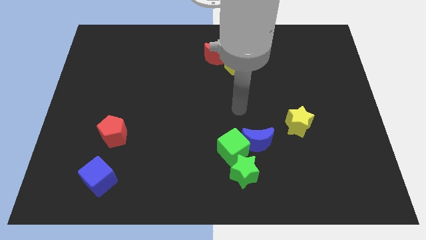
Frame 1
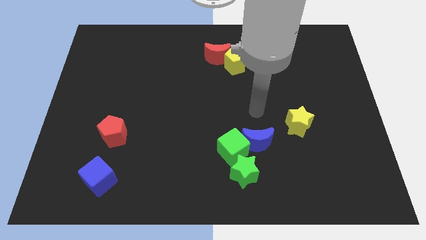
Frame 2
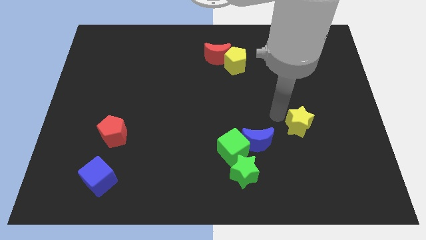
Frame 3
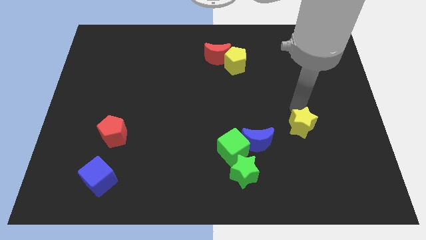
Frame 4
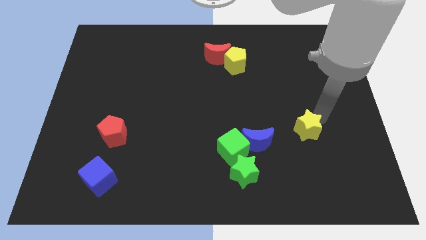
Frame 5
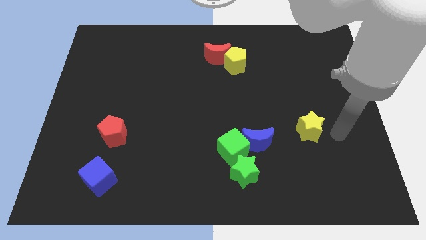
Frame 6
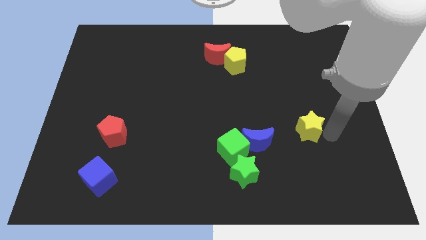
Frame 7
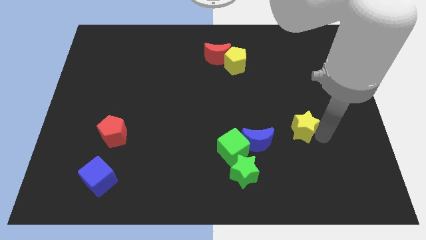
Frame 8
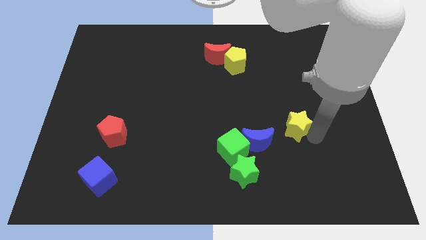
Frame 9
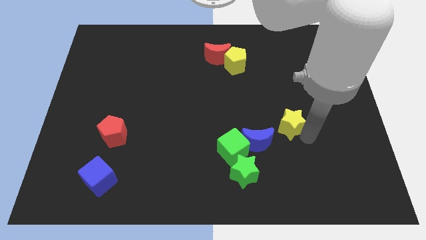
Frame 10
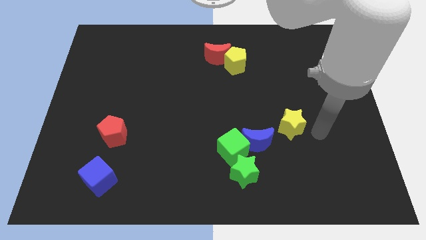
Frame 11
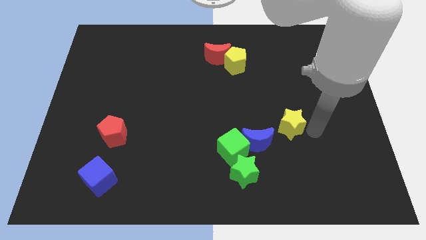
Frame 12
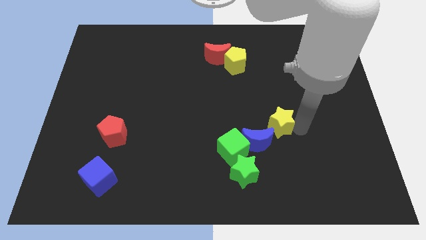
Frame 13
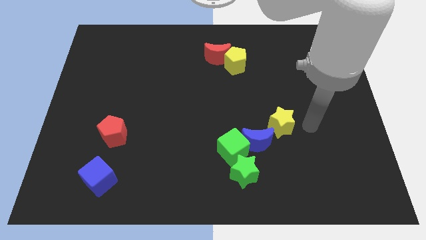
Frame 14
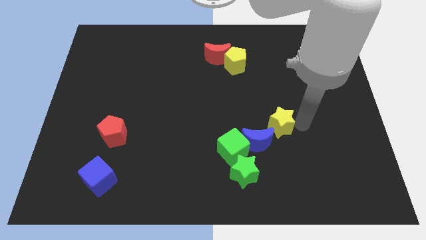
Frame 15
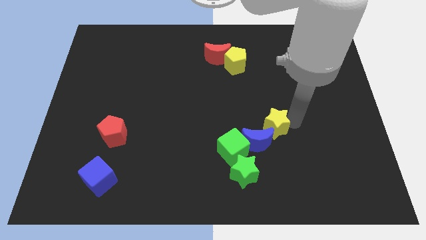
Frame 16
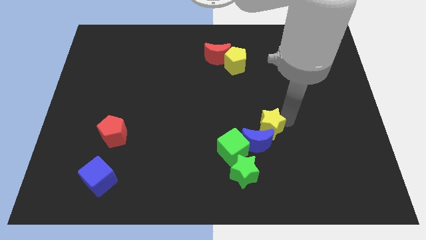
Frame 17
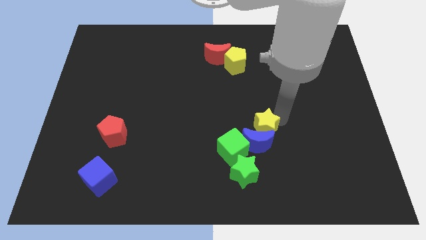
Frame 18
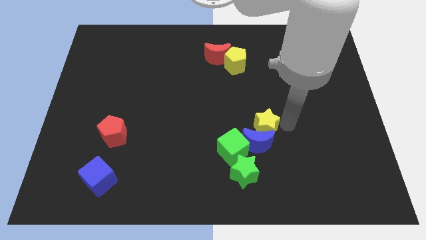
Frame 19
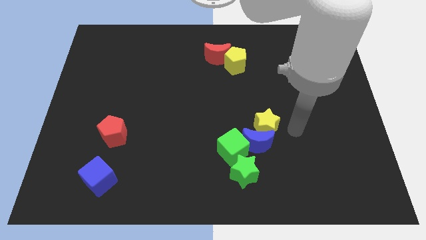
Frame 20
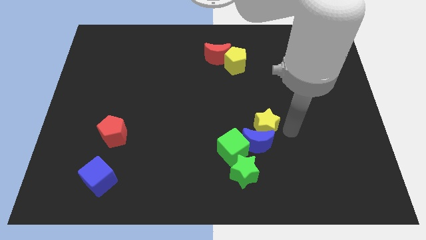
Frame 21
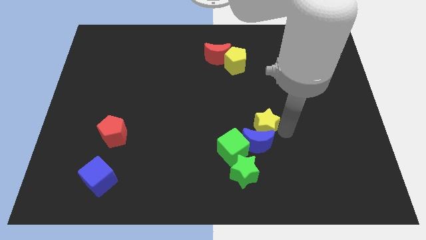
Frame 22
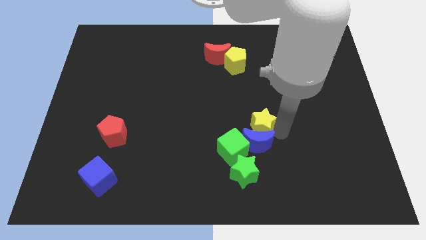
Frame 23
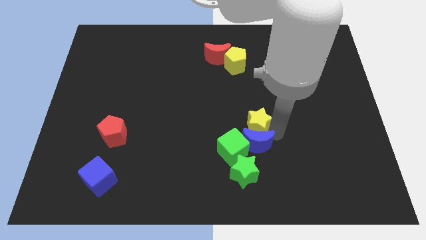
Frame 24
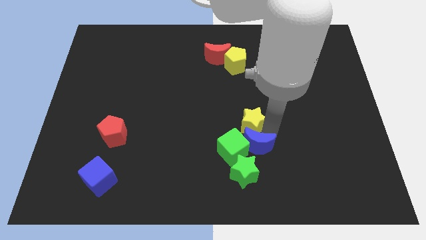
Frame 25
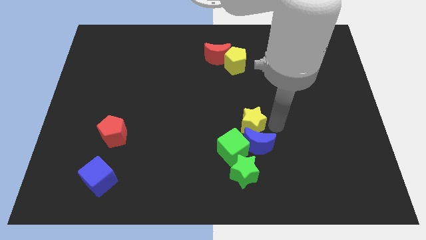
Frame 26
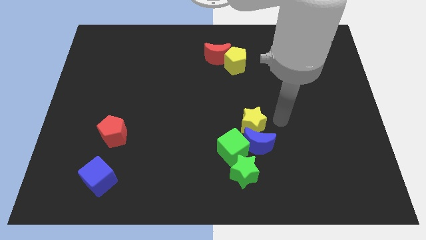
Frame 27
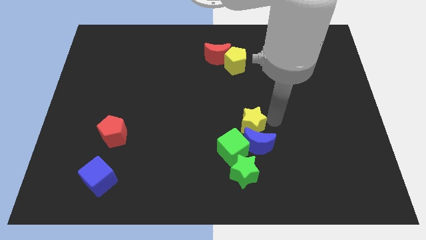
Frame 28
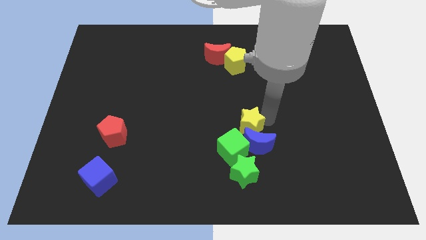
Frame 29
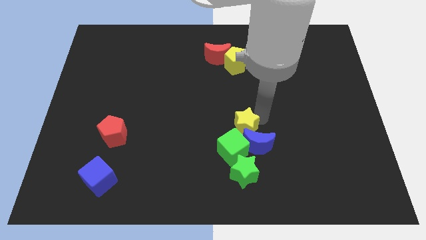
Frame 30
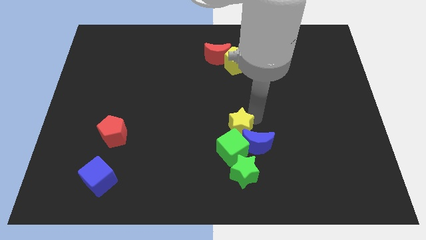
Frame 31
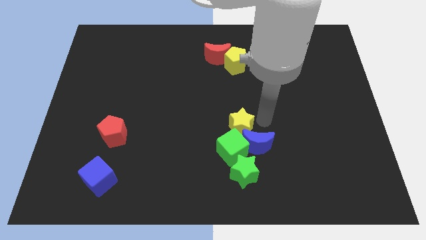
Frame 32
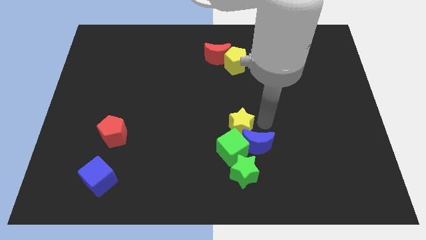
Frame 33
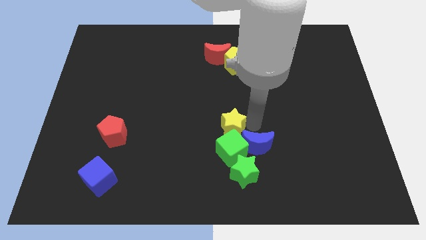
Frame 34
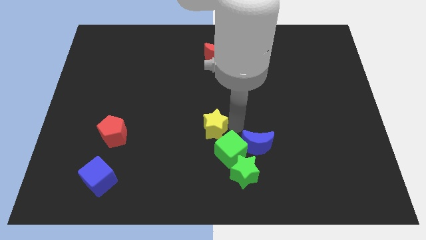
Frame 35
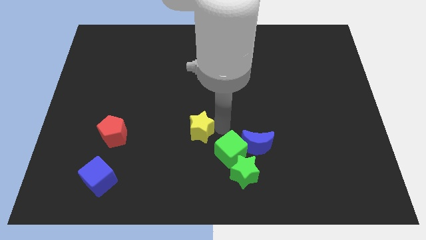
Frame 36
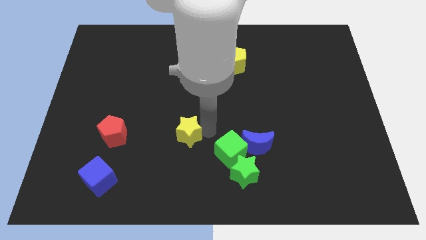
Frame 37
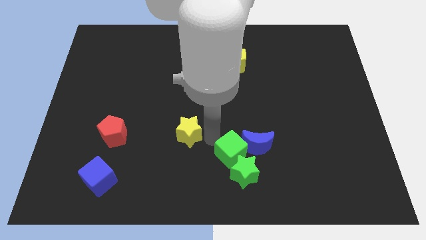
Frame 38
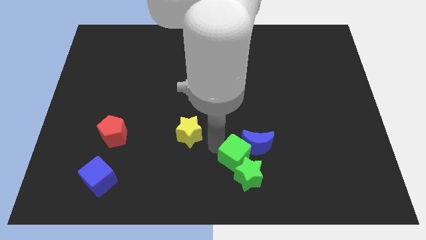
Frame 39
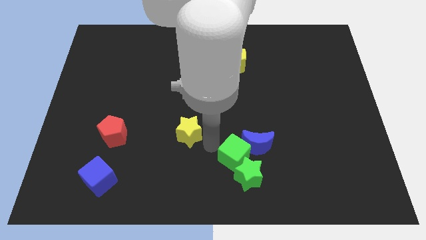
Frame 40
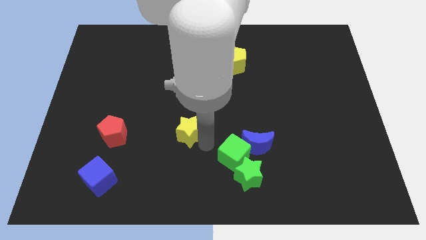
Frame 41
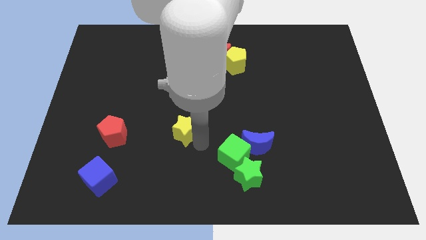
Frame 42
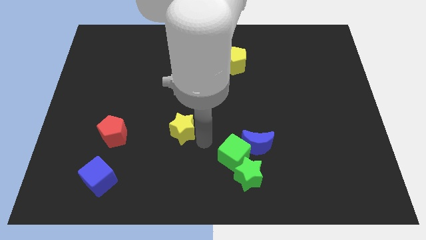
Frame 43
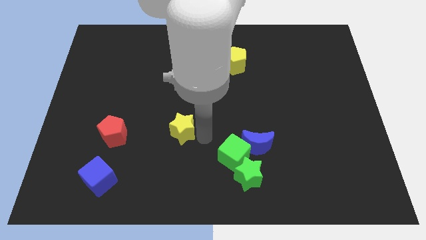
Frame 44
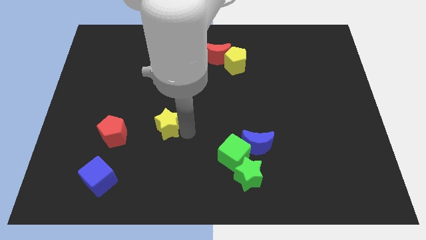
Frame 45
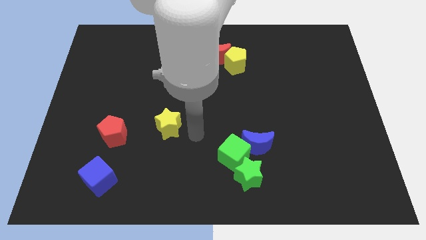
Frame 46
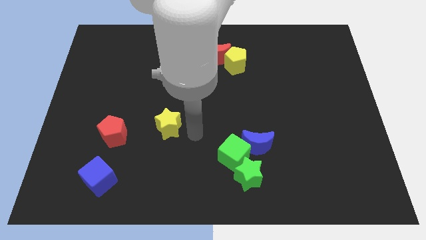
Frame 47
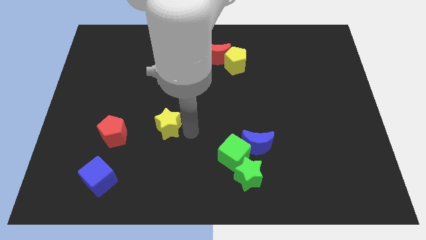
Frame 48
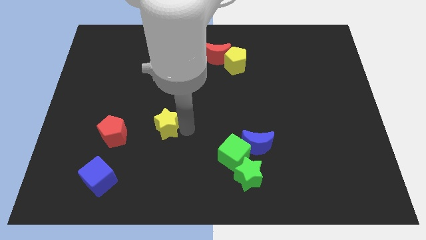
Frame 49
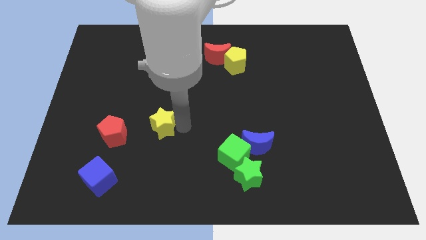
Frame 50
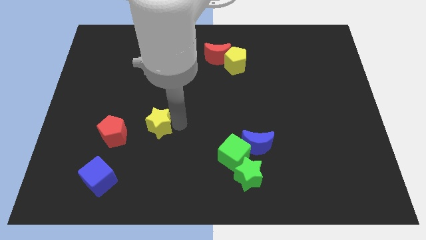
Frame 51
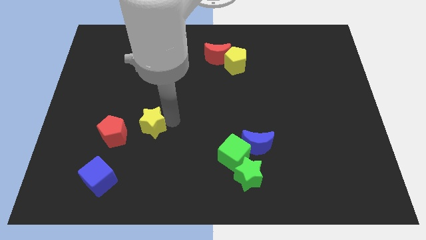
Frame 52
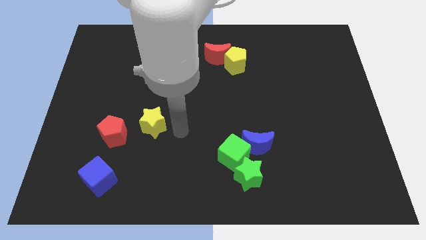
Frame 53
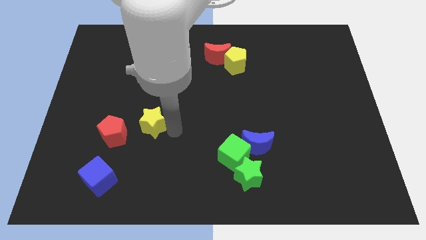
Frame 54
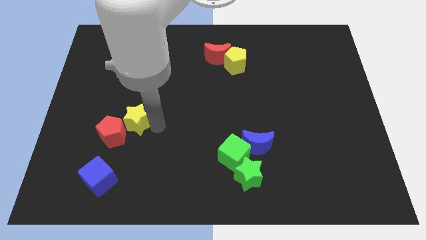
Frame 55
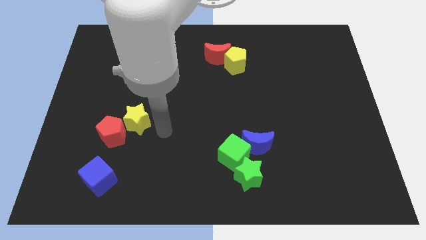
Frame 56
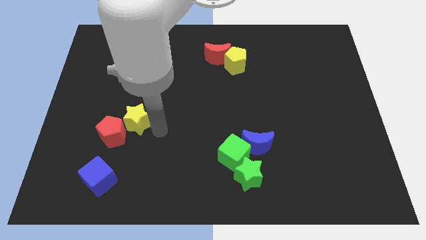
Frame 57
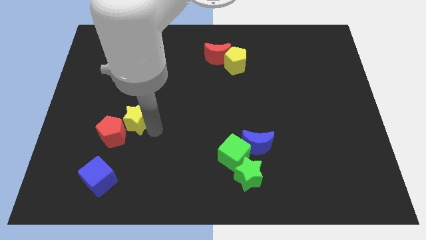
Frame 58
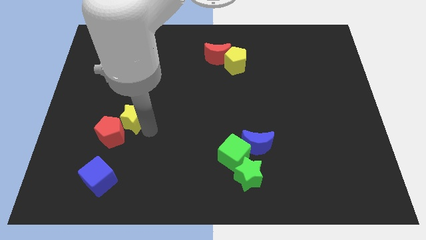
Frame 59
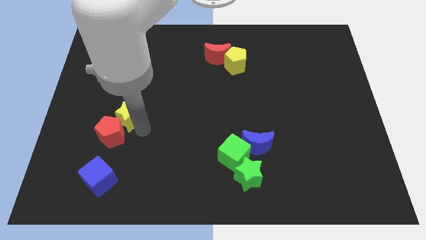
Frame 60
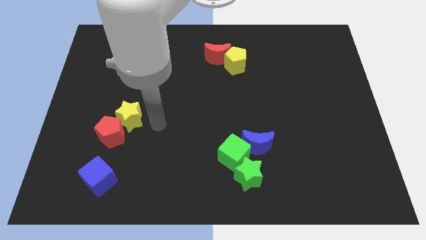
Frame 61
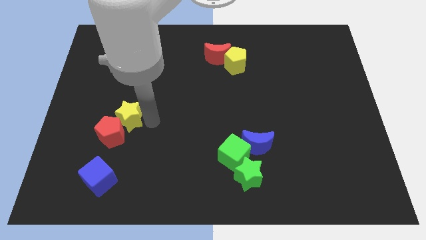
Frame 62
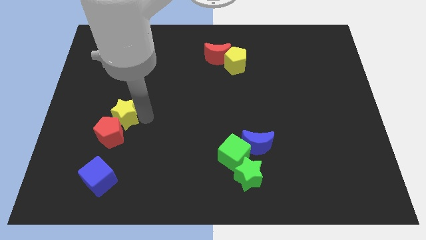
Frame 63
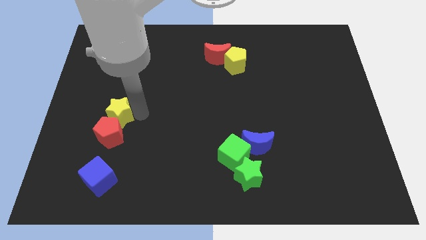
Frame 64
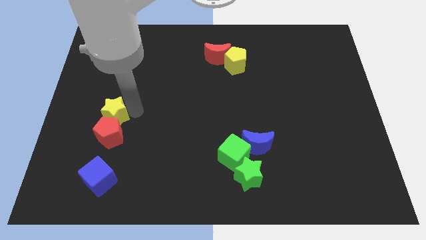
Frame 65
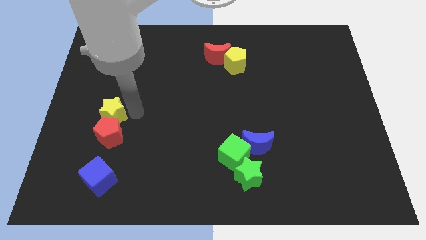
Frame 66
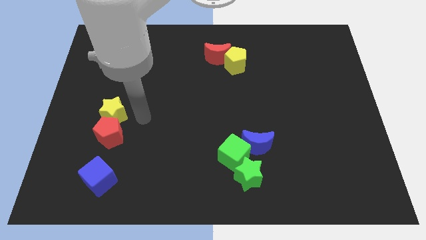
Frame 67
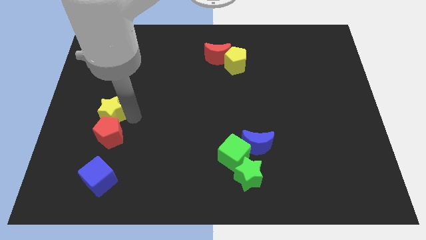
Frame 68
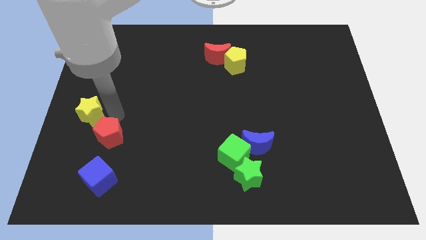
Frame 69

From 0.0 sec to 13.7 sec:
put the yellow star to the left side of the board

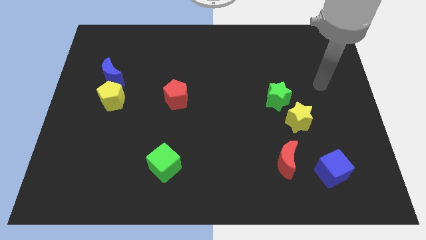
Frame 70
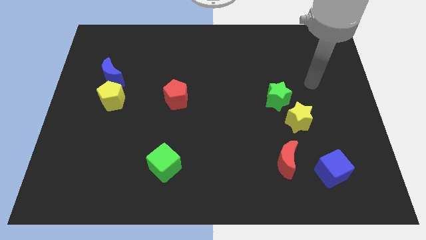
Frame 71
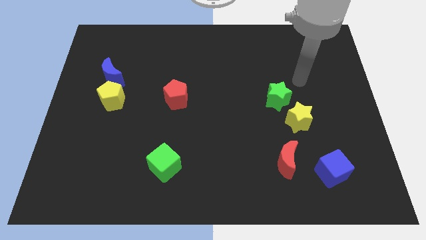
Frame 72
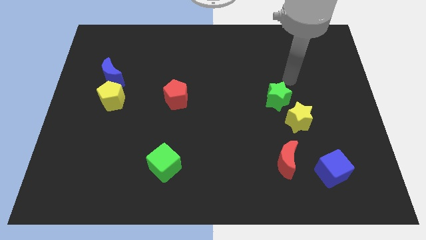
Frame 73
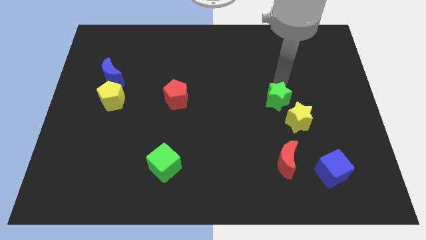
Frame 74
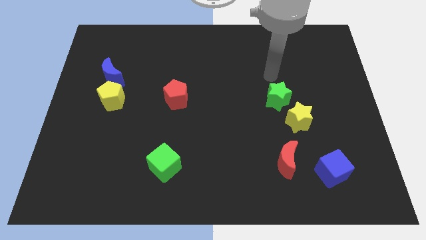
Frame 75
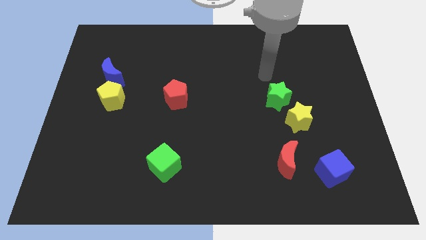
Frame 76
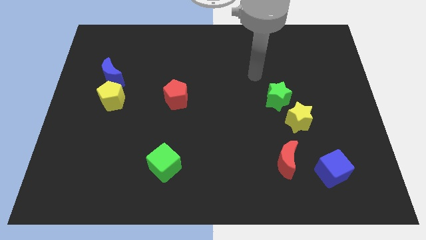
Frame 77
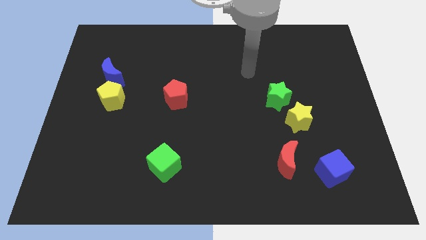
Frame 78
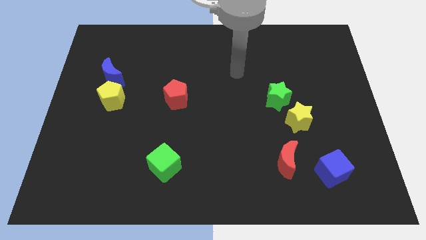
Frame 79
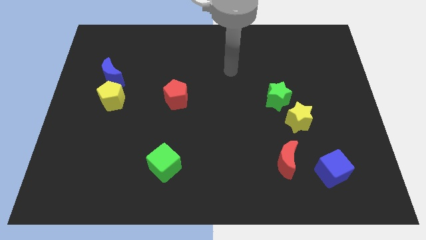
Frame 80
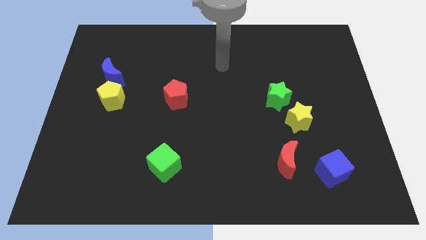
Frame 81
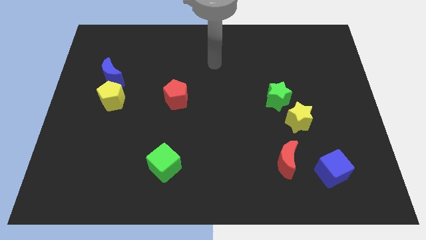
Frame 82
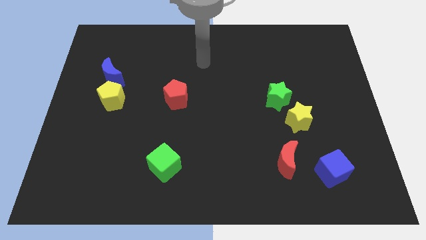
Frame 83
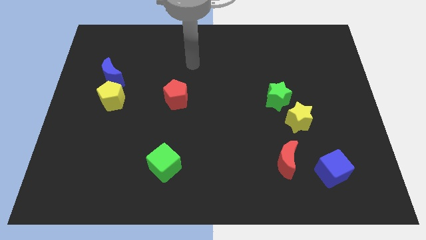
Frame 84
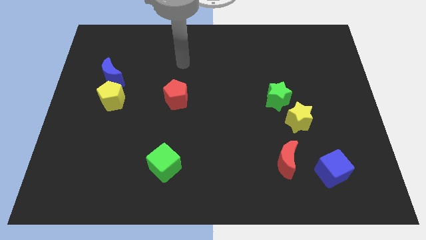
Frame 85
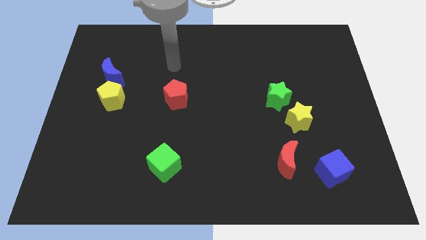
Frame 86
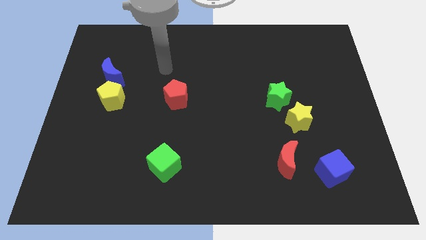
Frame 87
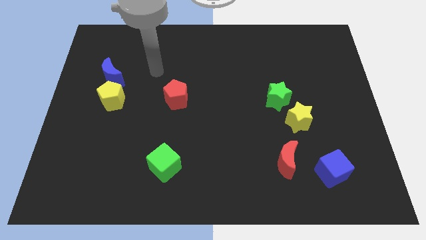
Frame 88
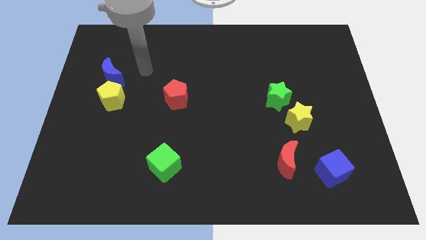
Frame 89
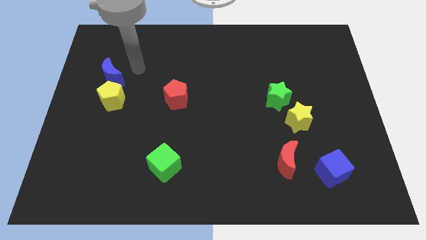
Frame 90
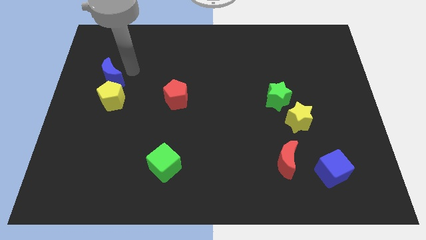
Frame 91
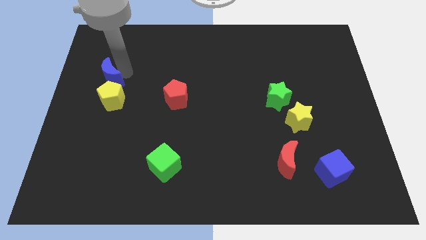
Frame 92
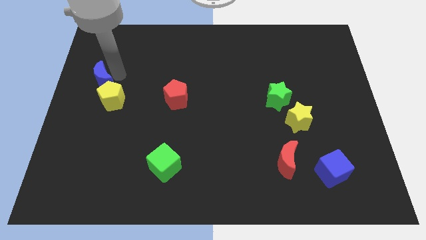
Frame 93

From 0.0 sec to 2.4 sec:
push the blue moon to the left side
